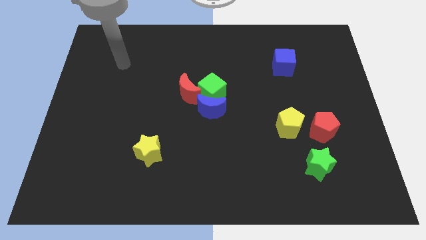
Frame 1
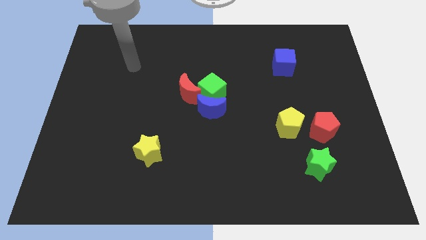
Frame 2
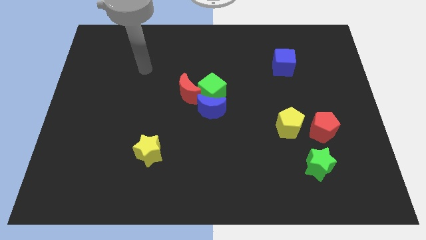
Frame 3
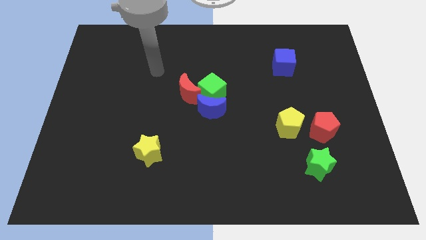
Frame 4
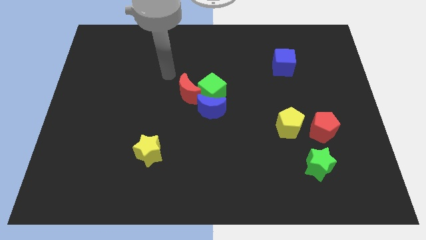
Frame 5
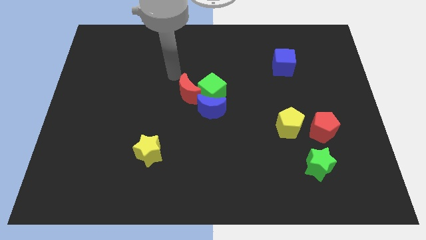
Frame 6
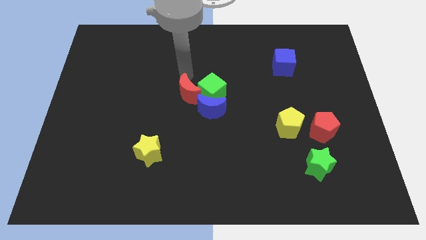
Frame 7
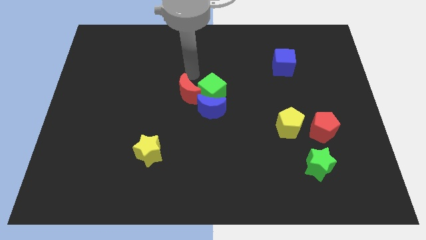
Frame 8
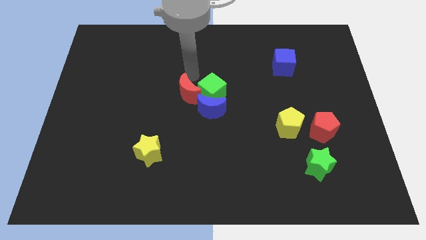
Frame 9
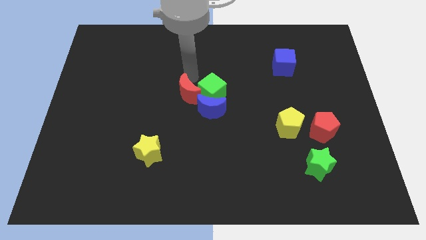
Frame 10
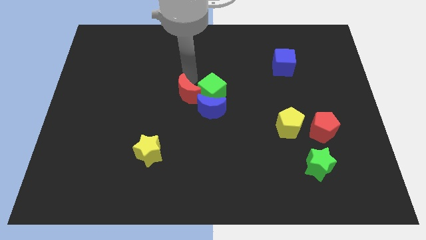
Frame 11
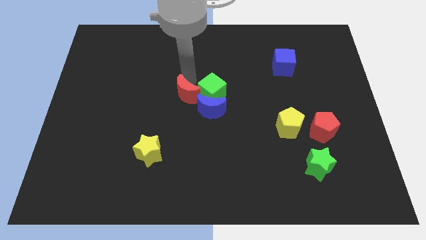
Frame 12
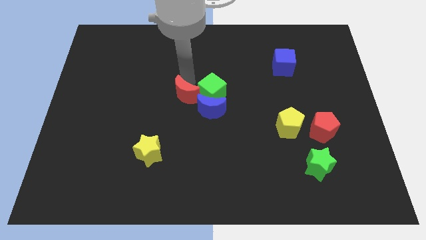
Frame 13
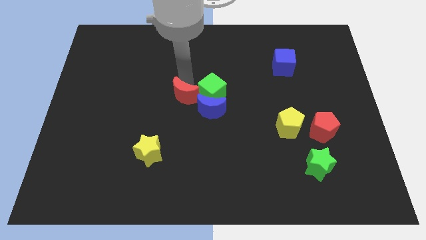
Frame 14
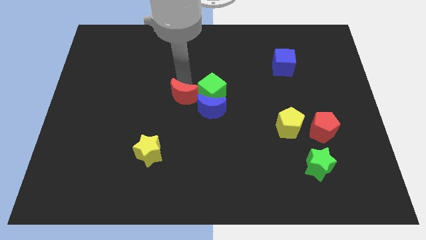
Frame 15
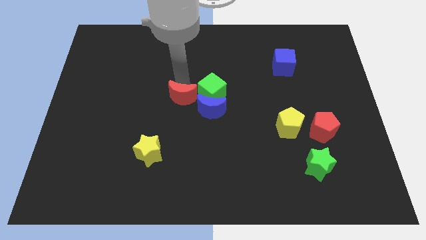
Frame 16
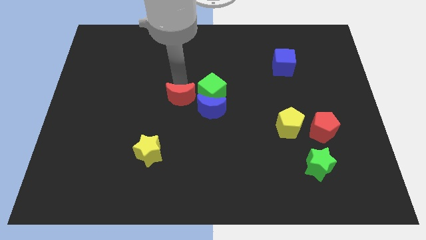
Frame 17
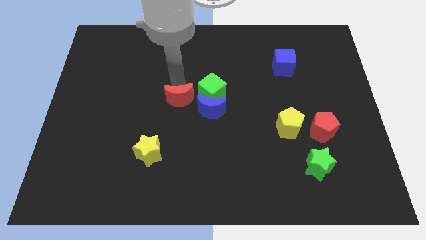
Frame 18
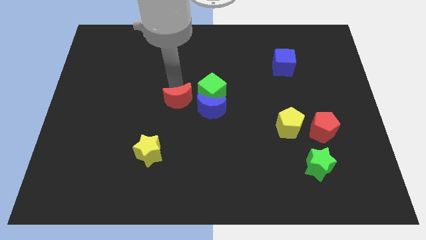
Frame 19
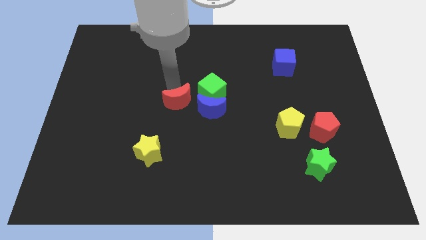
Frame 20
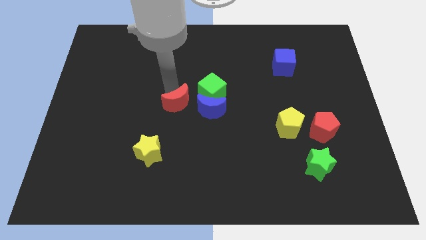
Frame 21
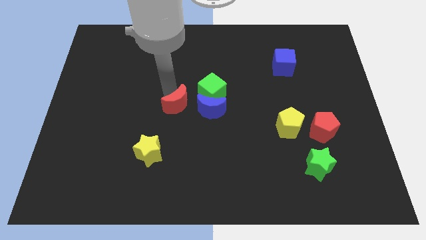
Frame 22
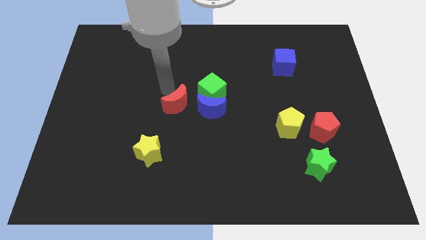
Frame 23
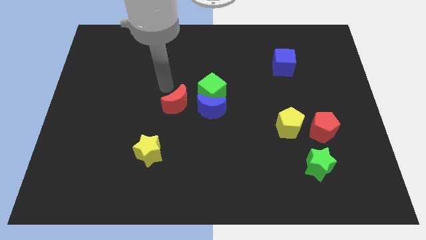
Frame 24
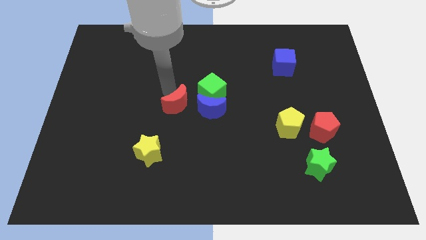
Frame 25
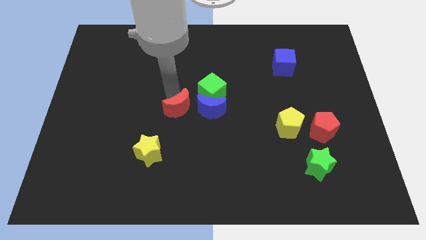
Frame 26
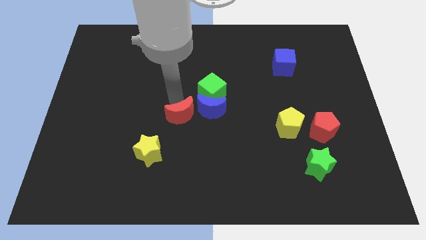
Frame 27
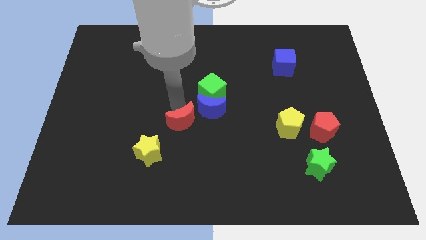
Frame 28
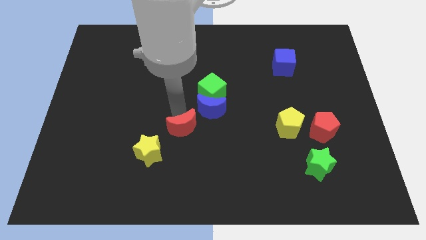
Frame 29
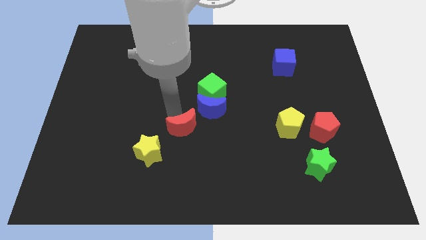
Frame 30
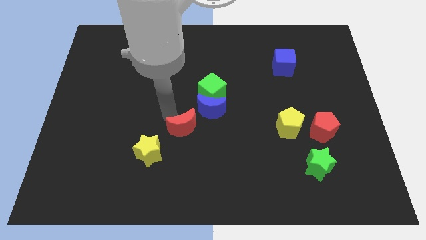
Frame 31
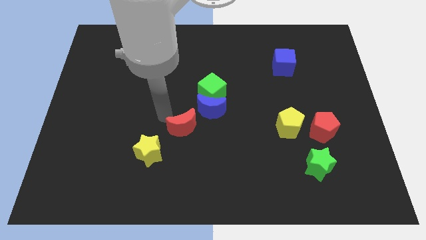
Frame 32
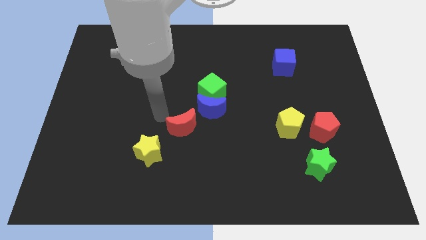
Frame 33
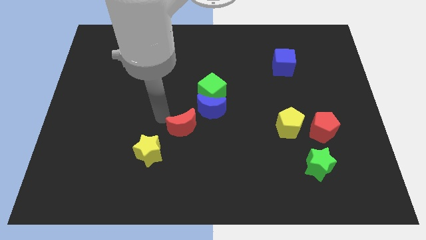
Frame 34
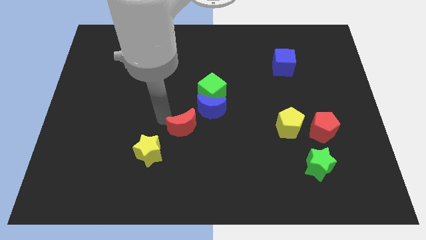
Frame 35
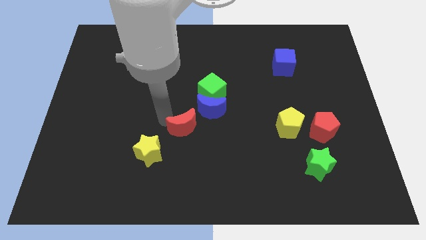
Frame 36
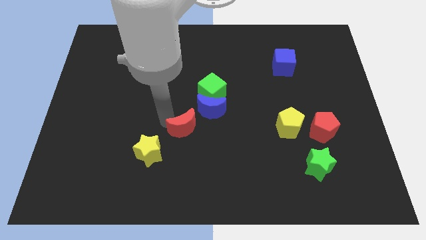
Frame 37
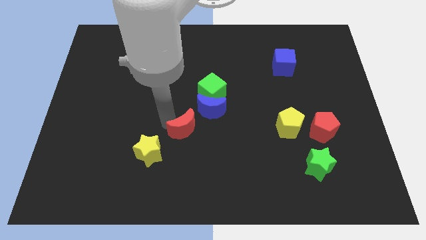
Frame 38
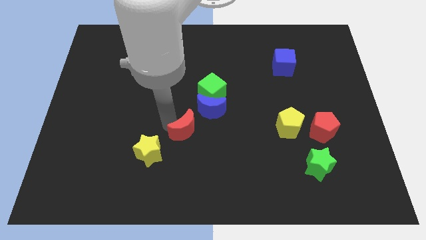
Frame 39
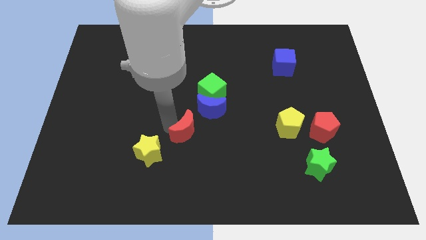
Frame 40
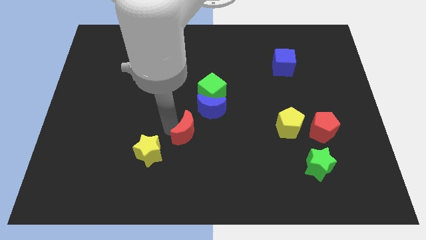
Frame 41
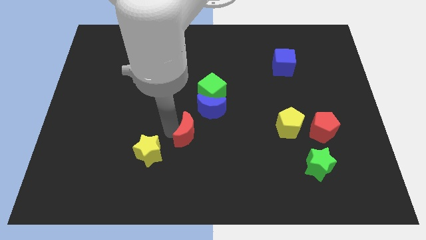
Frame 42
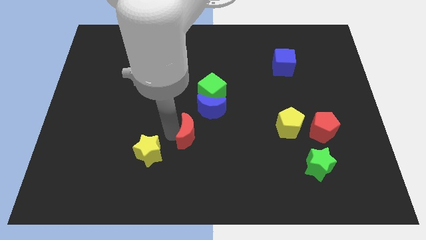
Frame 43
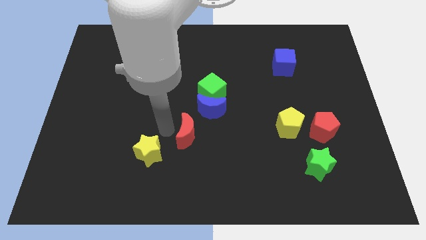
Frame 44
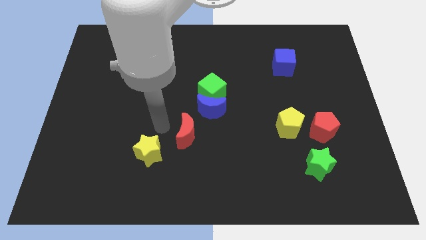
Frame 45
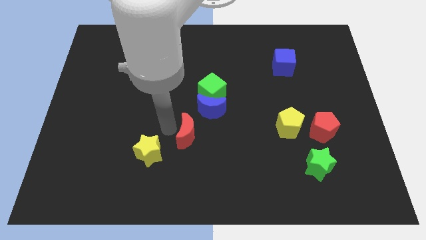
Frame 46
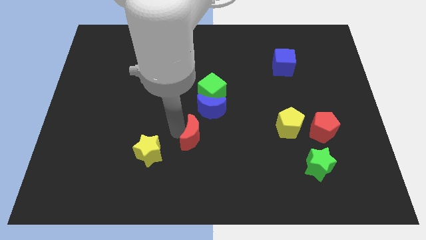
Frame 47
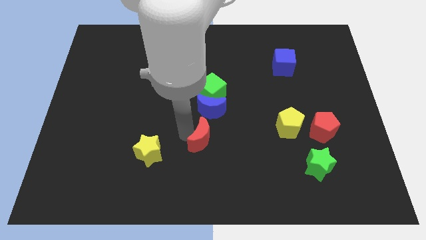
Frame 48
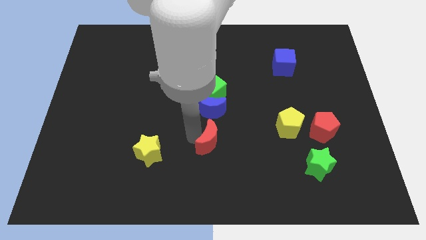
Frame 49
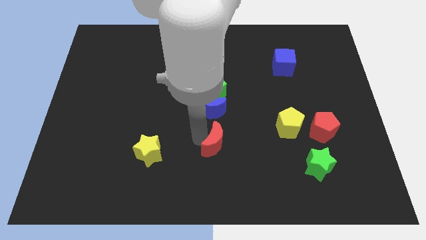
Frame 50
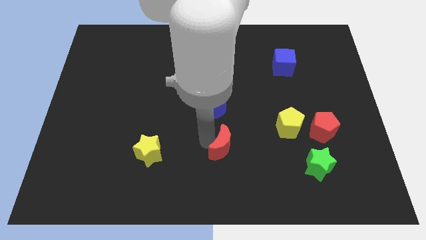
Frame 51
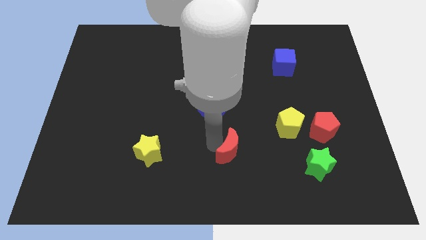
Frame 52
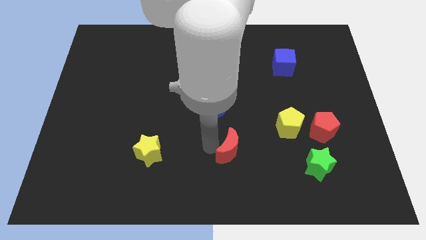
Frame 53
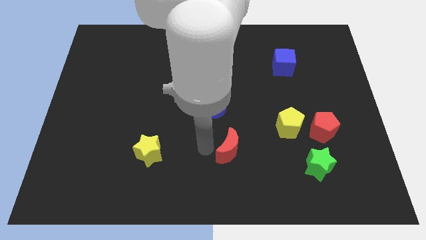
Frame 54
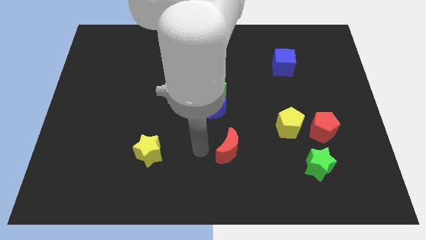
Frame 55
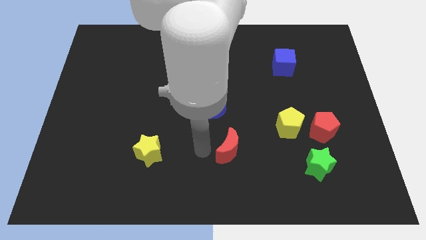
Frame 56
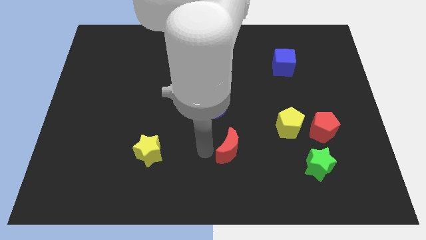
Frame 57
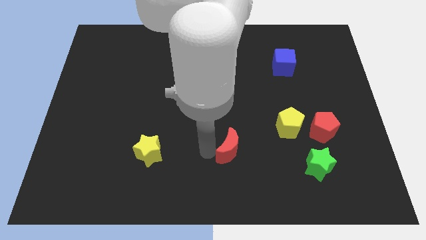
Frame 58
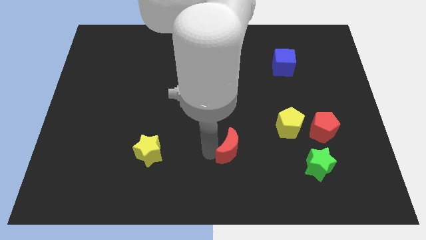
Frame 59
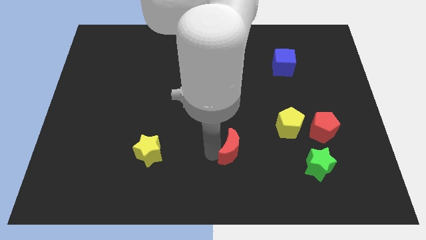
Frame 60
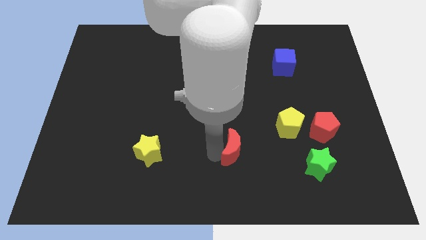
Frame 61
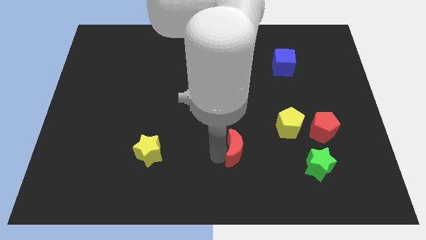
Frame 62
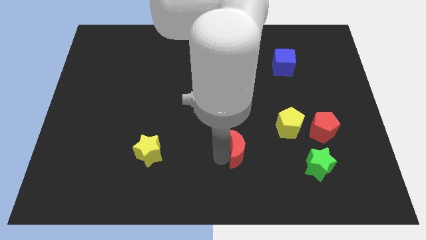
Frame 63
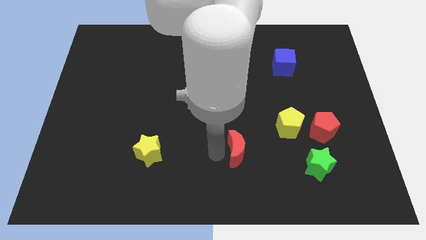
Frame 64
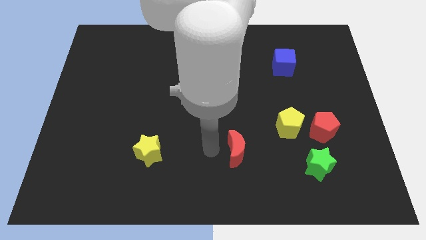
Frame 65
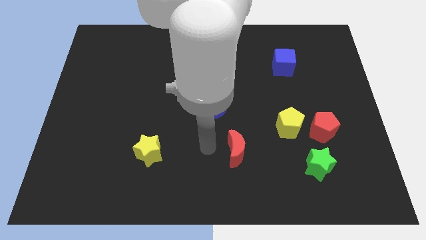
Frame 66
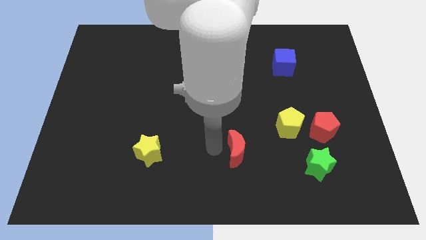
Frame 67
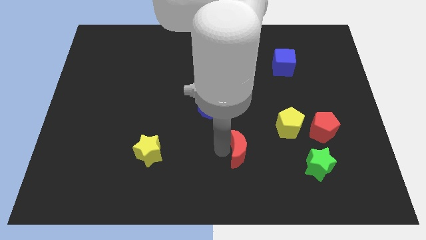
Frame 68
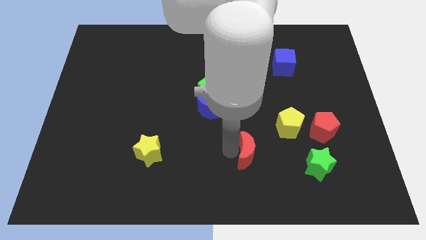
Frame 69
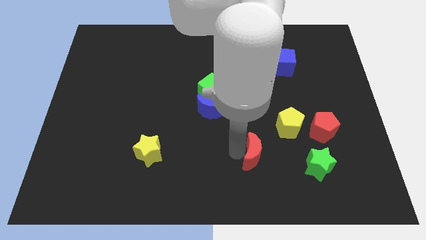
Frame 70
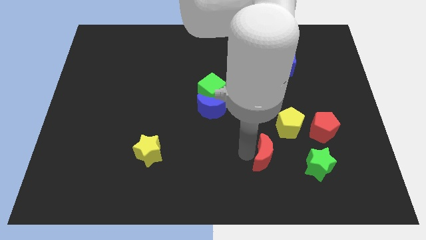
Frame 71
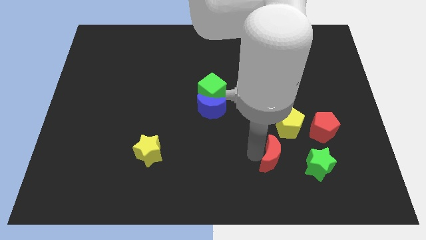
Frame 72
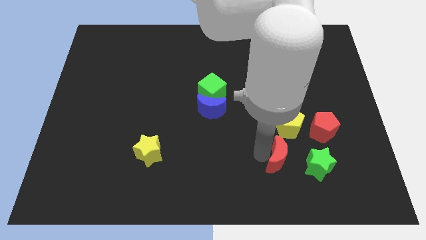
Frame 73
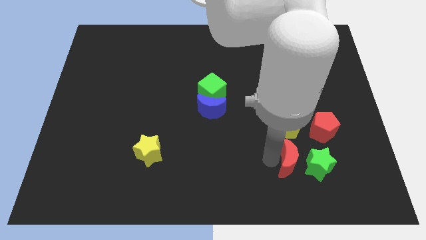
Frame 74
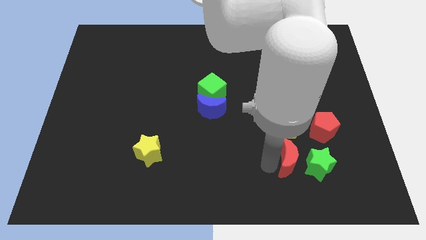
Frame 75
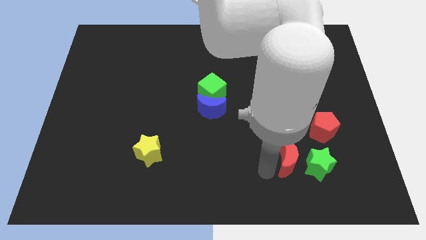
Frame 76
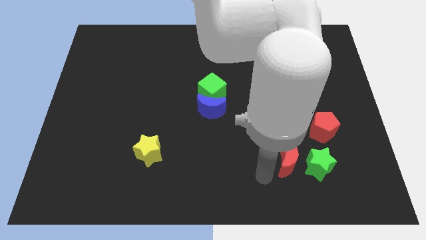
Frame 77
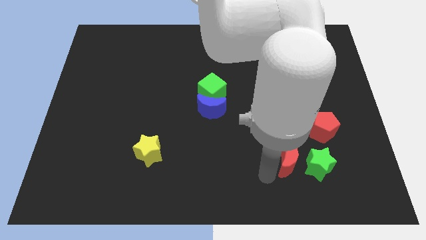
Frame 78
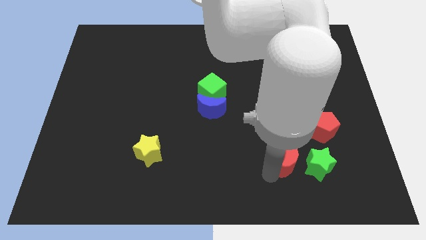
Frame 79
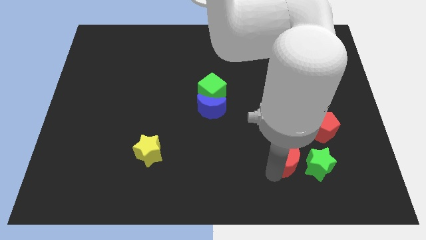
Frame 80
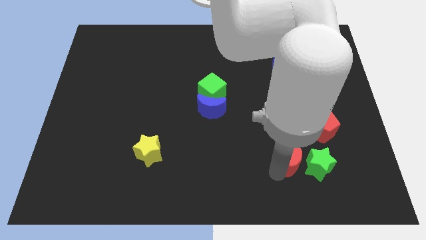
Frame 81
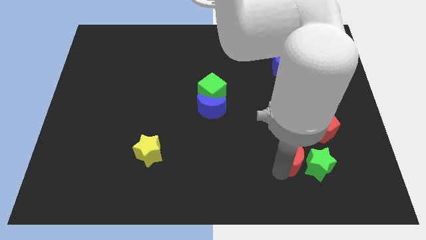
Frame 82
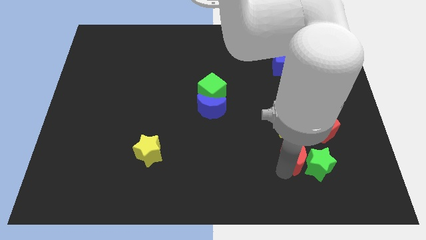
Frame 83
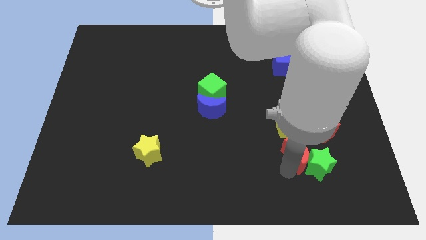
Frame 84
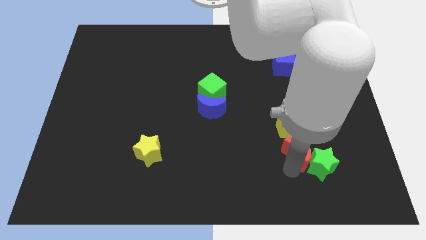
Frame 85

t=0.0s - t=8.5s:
move the red moon diagonally down and to the right of the yellow pentagon
